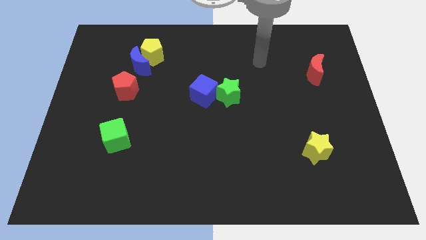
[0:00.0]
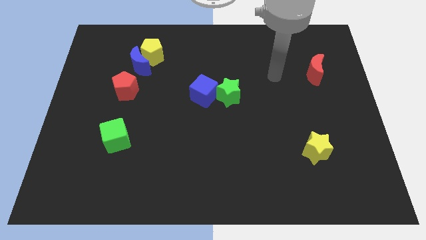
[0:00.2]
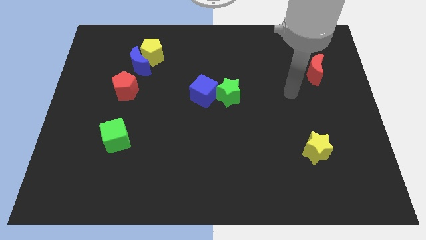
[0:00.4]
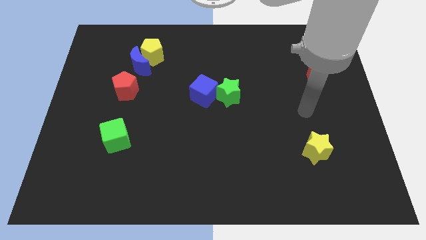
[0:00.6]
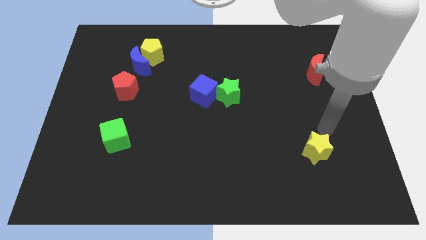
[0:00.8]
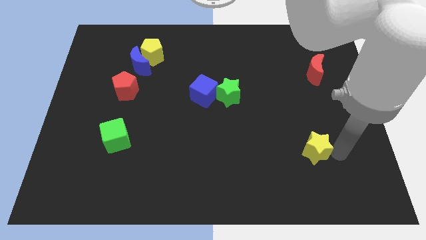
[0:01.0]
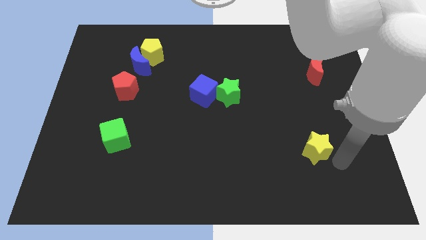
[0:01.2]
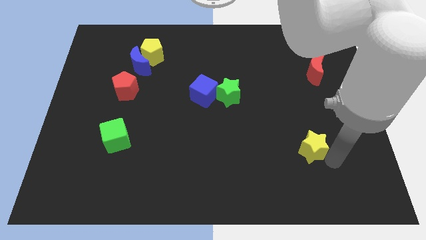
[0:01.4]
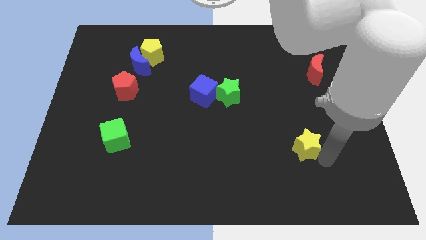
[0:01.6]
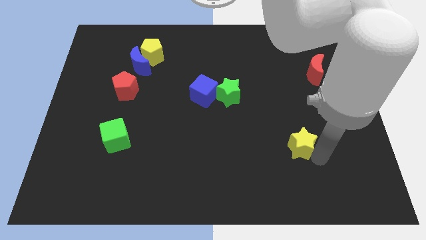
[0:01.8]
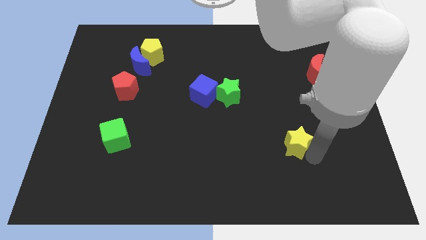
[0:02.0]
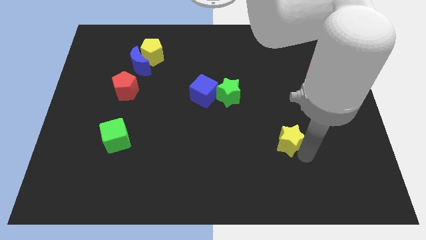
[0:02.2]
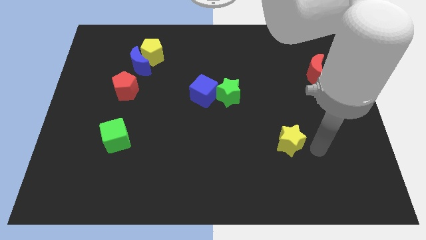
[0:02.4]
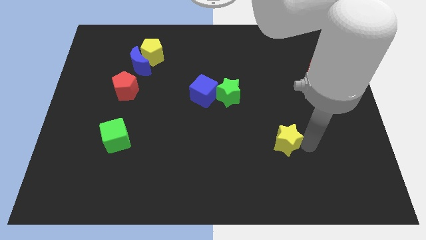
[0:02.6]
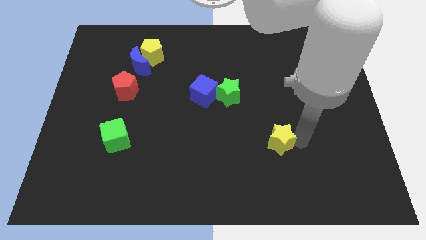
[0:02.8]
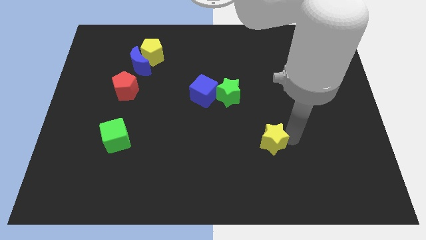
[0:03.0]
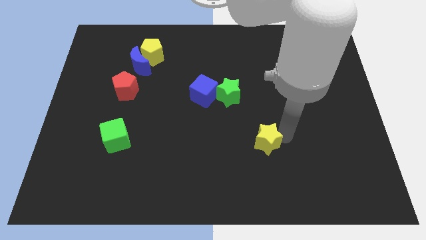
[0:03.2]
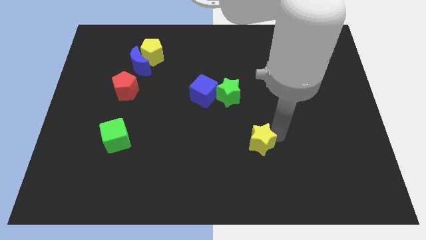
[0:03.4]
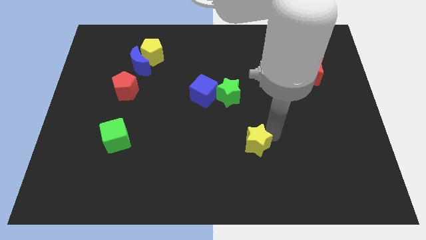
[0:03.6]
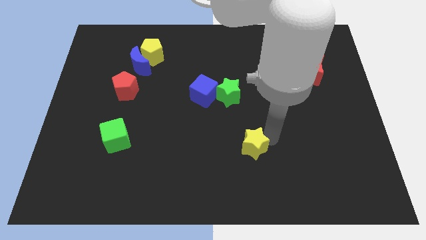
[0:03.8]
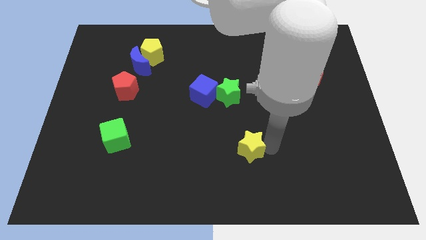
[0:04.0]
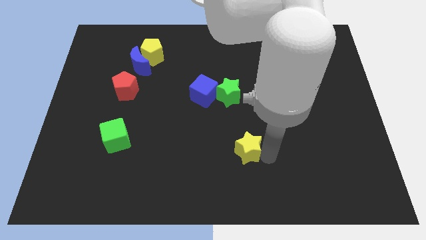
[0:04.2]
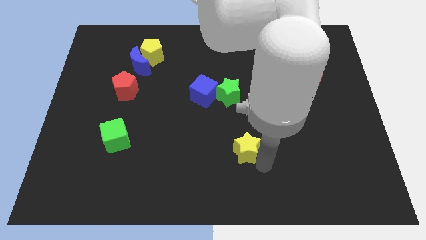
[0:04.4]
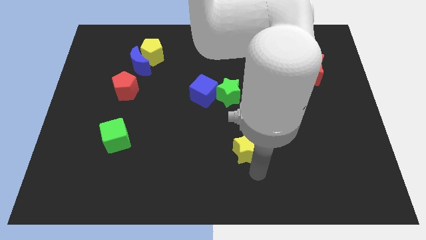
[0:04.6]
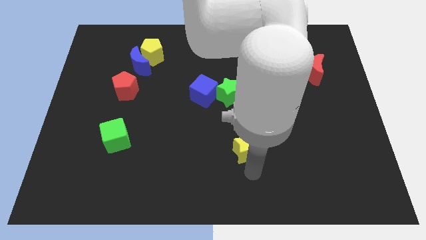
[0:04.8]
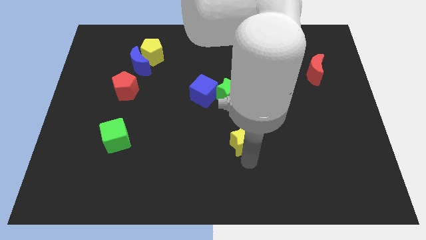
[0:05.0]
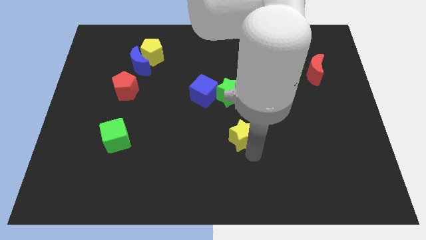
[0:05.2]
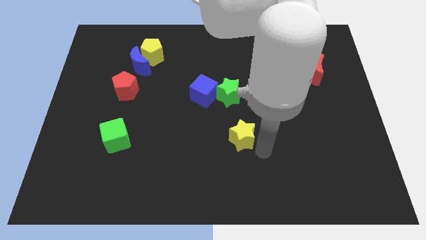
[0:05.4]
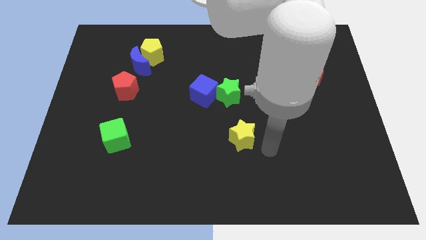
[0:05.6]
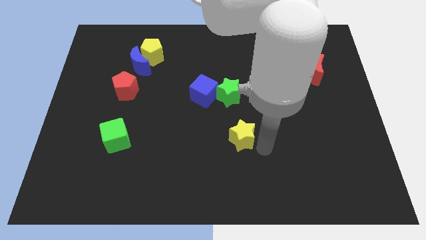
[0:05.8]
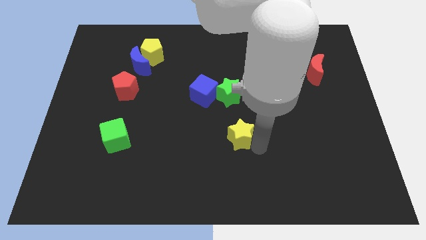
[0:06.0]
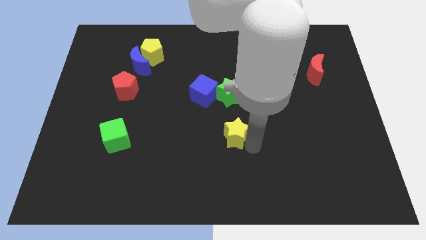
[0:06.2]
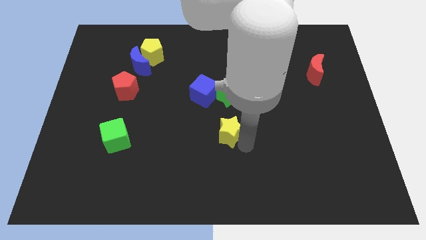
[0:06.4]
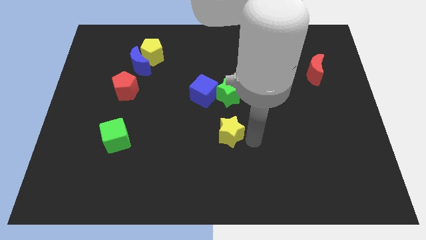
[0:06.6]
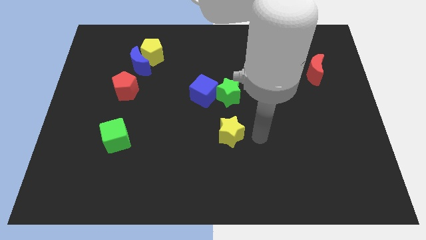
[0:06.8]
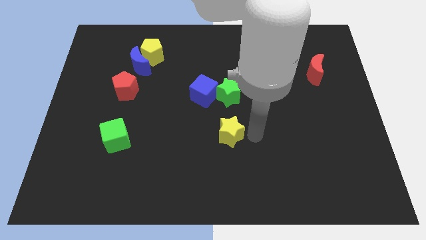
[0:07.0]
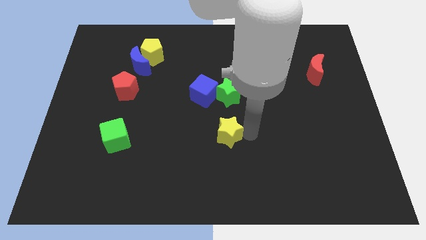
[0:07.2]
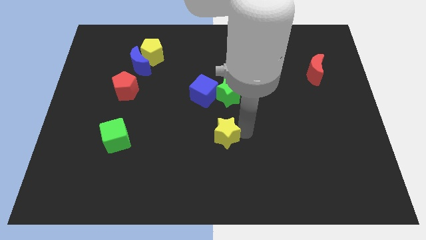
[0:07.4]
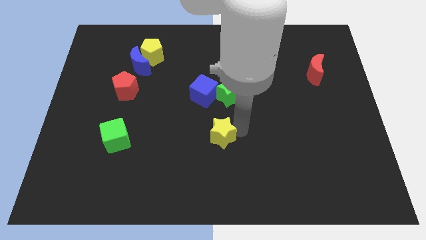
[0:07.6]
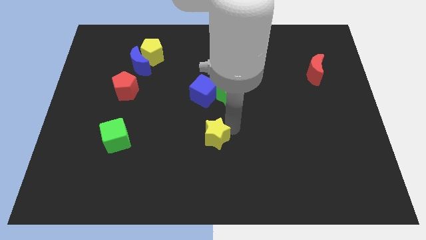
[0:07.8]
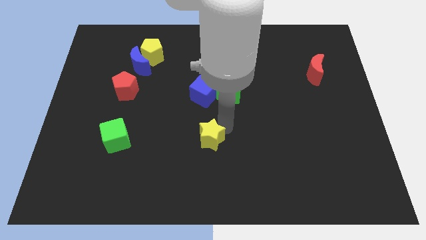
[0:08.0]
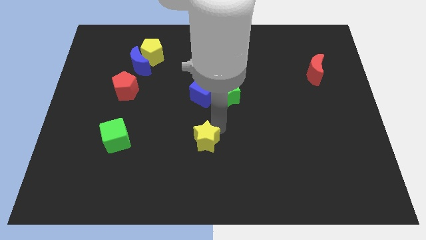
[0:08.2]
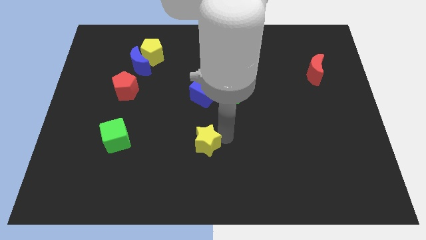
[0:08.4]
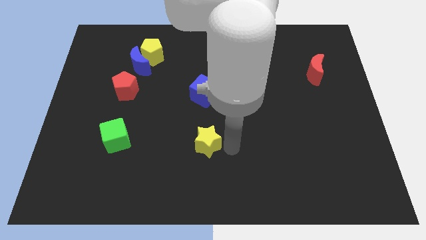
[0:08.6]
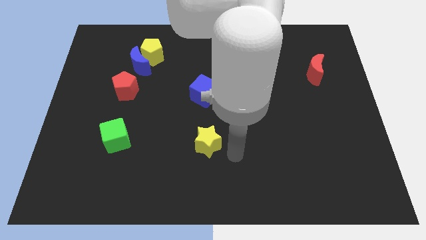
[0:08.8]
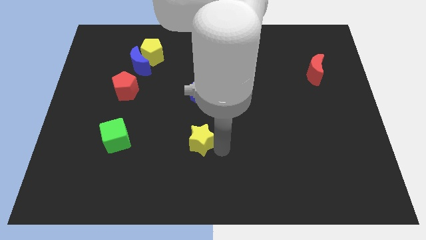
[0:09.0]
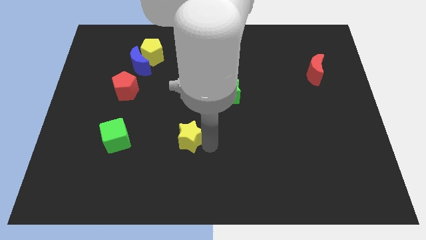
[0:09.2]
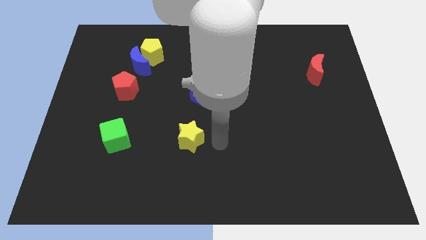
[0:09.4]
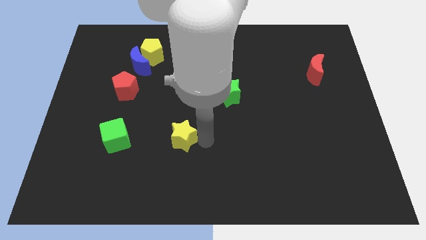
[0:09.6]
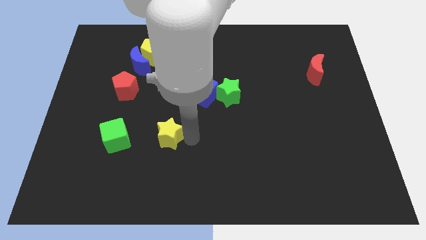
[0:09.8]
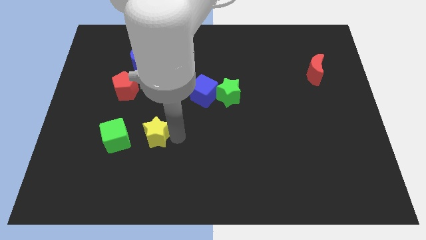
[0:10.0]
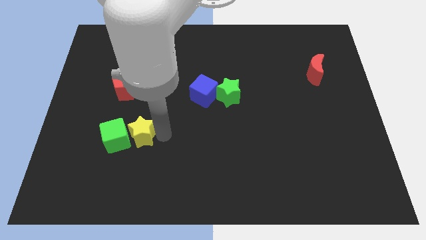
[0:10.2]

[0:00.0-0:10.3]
slide the yellow star towards the green cube

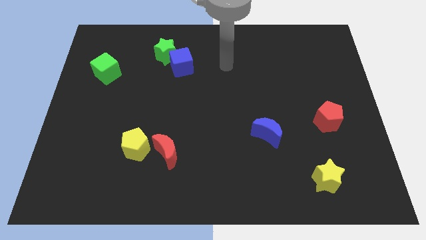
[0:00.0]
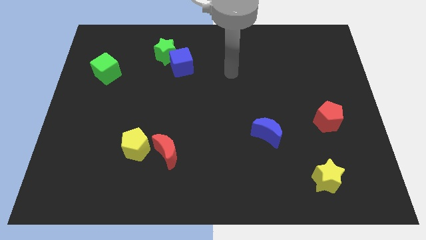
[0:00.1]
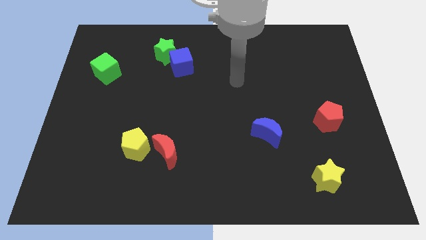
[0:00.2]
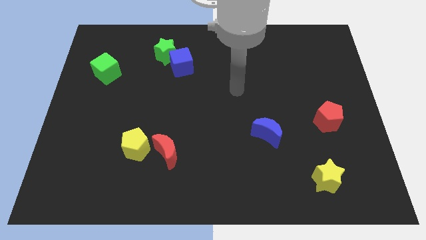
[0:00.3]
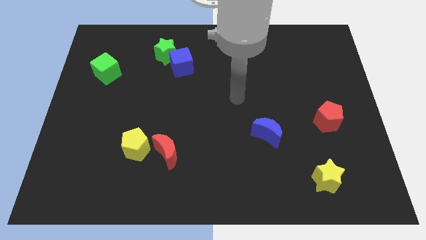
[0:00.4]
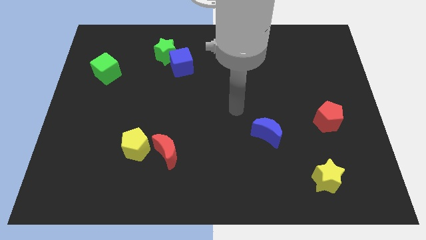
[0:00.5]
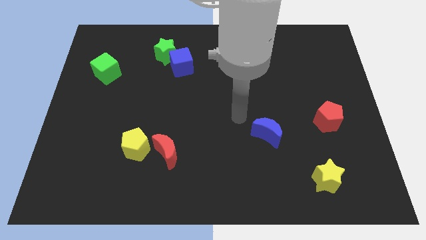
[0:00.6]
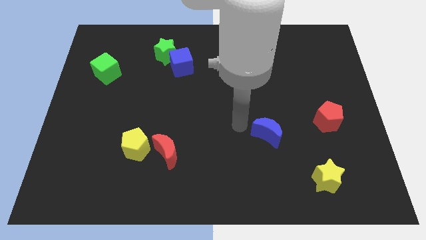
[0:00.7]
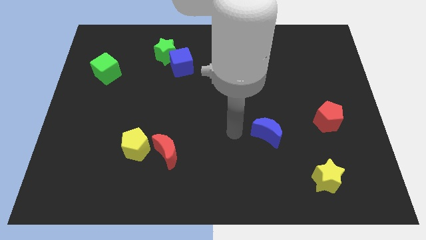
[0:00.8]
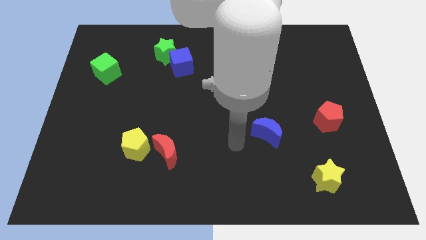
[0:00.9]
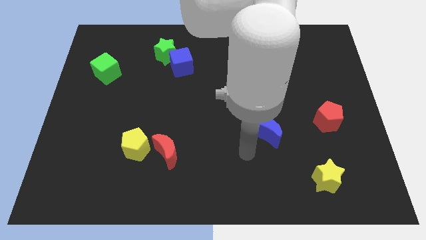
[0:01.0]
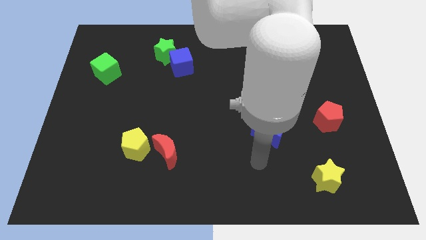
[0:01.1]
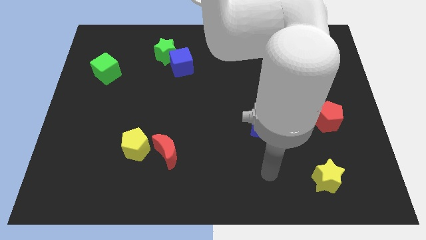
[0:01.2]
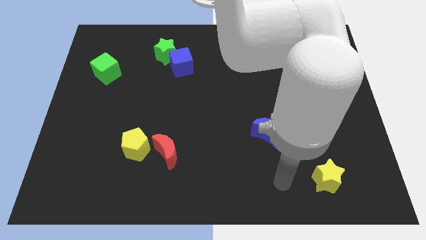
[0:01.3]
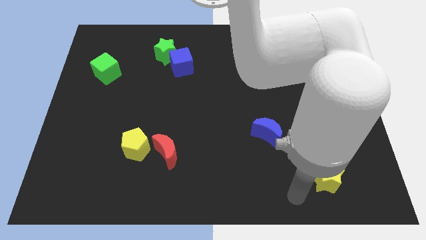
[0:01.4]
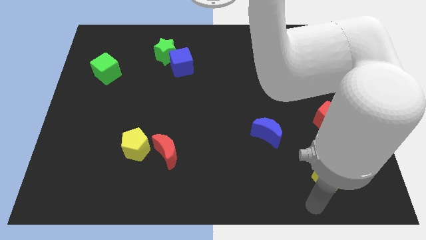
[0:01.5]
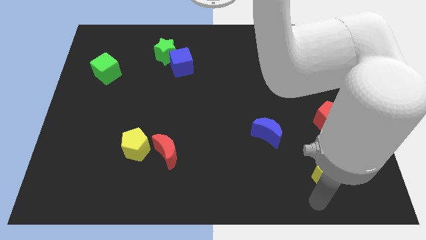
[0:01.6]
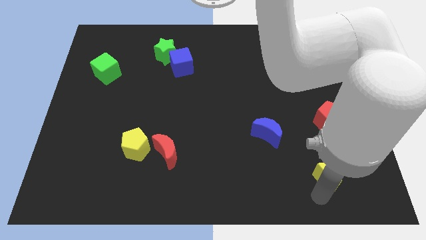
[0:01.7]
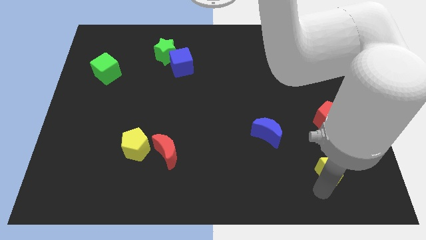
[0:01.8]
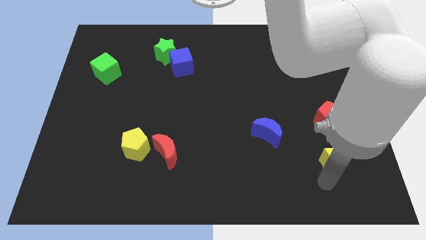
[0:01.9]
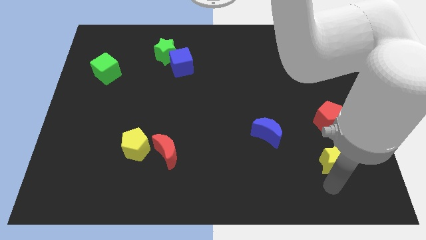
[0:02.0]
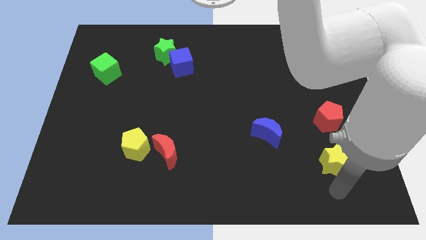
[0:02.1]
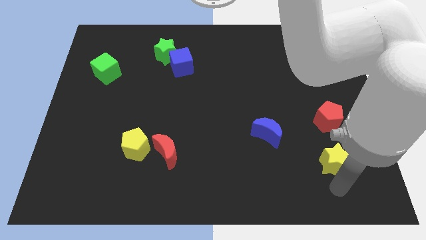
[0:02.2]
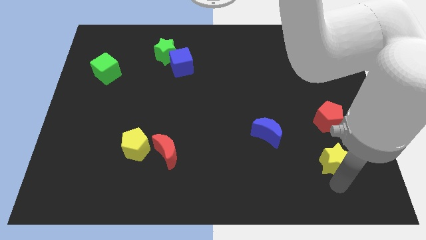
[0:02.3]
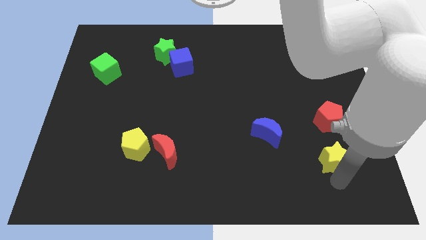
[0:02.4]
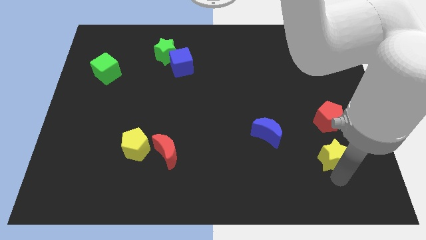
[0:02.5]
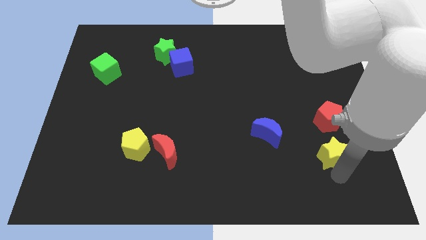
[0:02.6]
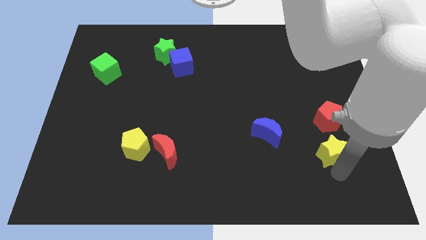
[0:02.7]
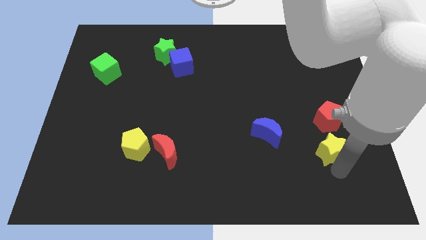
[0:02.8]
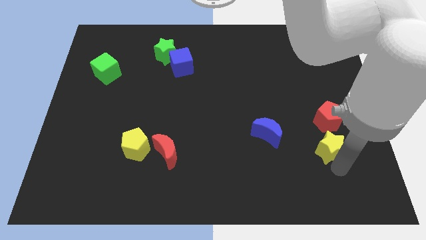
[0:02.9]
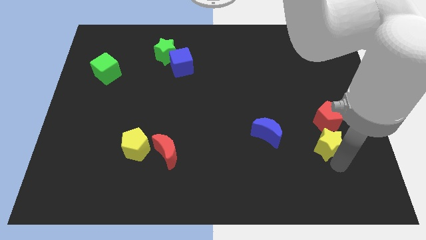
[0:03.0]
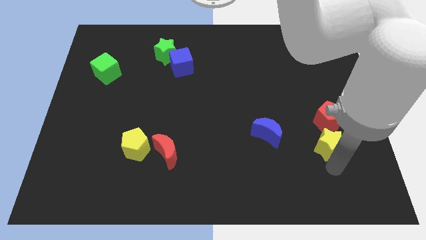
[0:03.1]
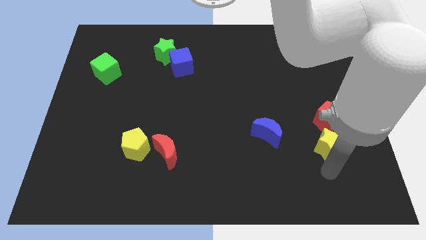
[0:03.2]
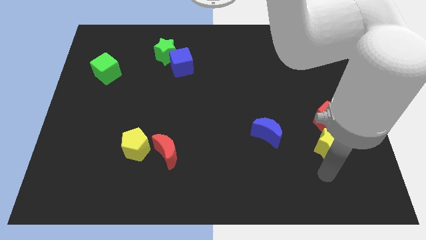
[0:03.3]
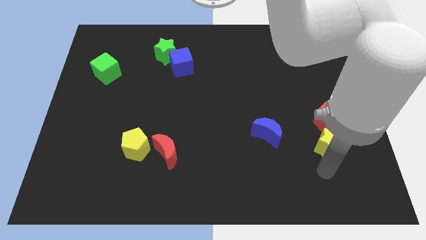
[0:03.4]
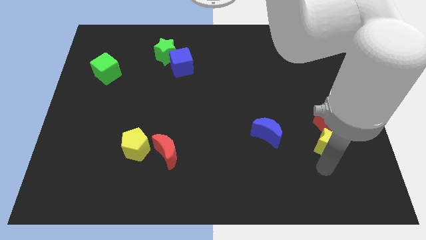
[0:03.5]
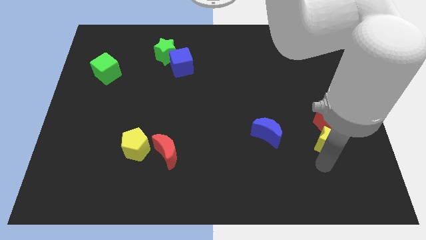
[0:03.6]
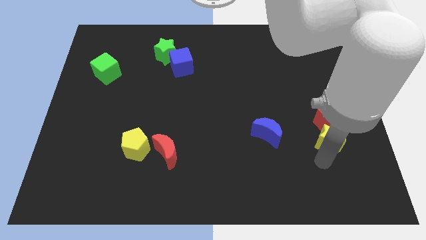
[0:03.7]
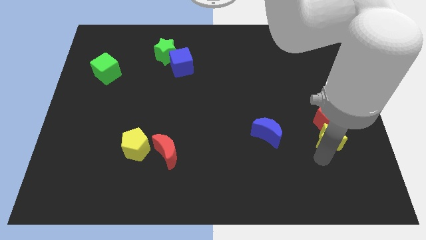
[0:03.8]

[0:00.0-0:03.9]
slide the yellow star next to the red pentagon
